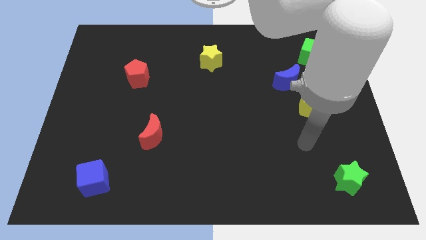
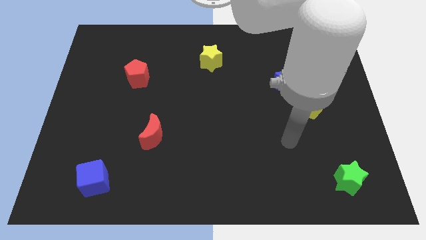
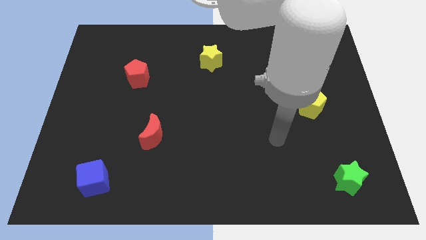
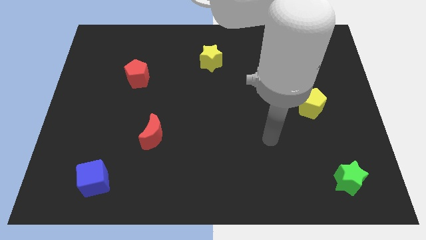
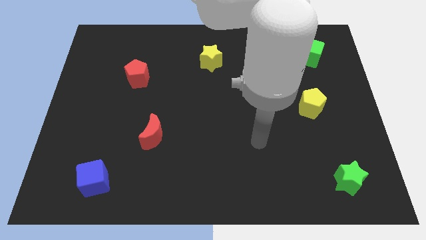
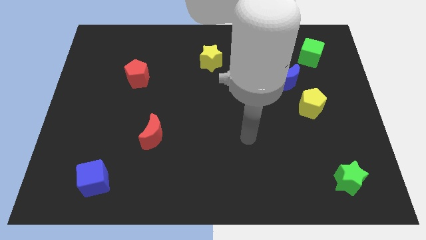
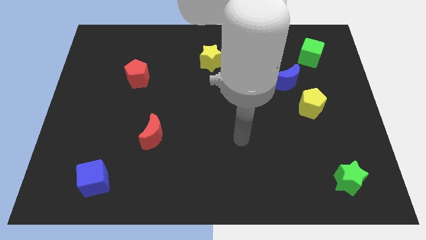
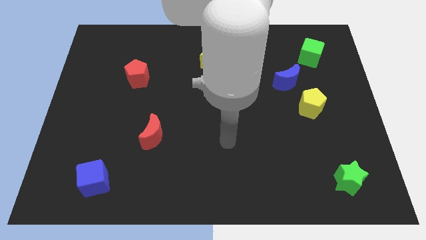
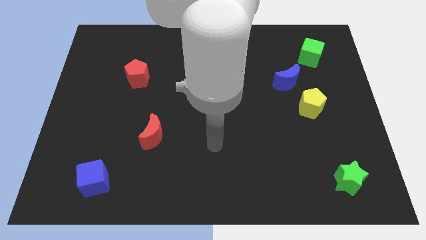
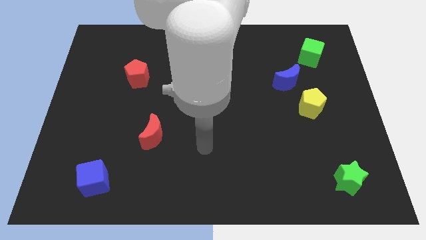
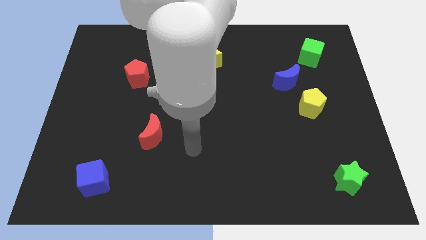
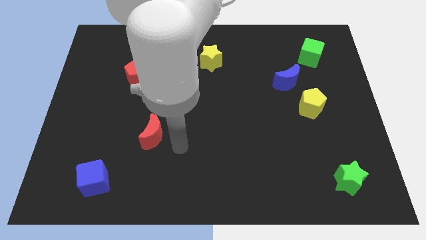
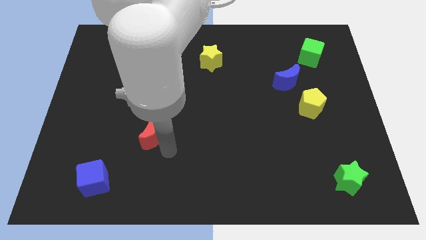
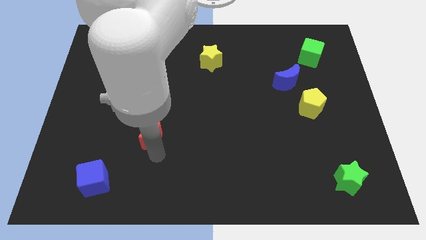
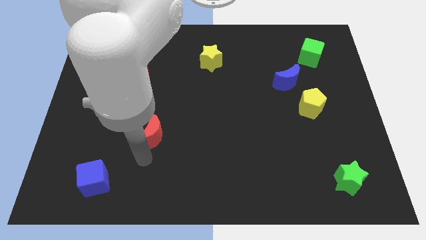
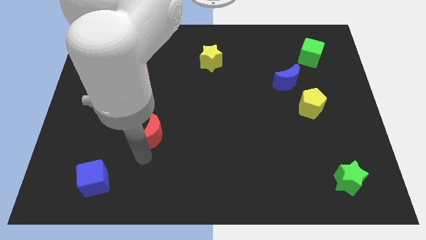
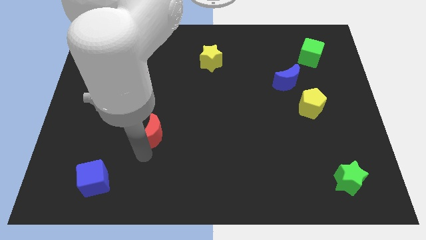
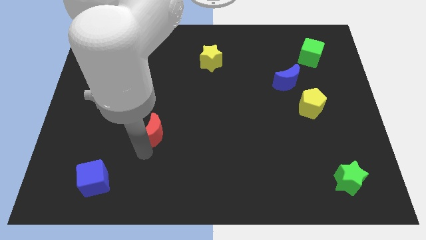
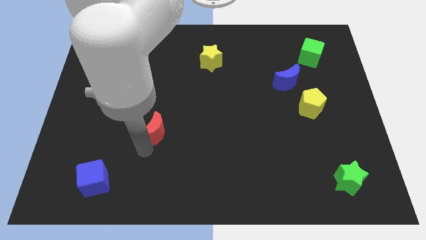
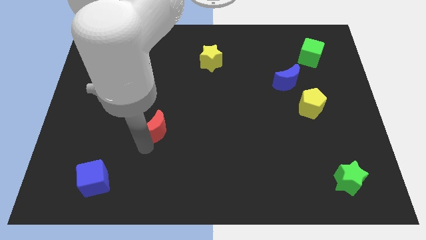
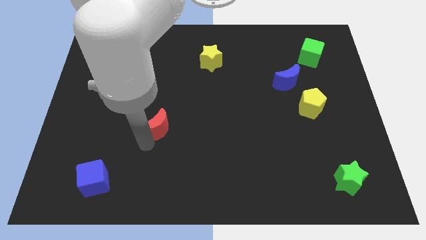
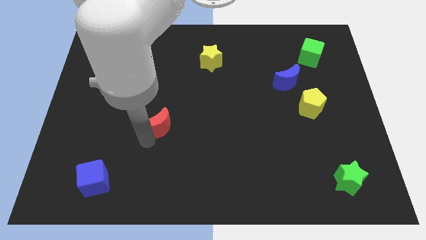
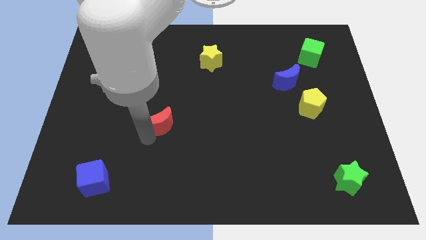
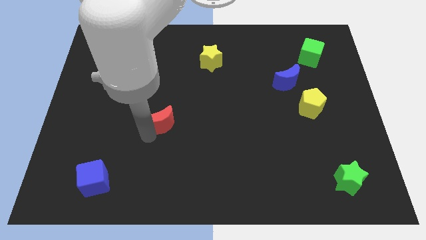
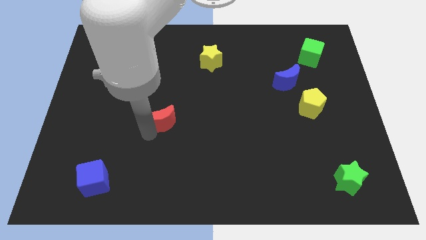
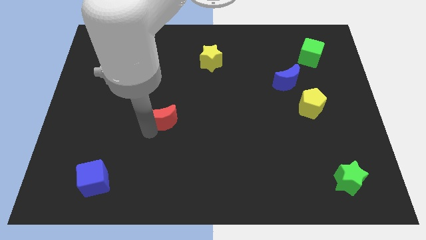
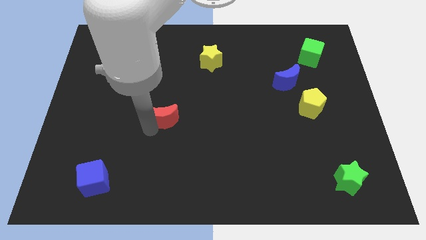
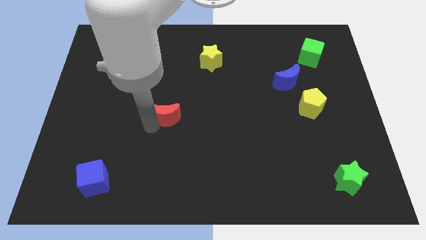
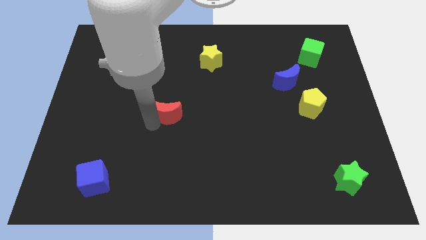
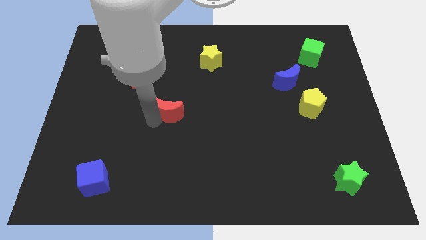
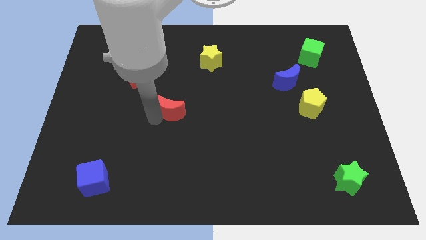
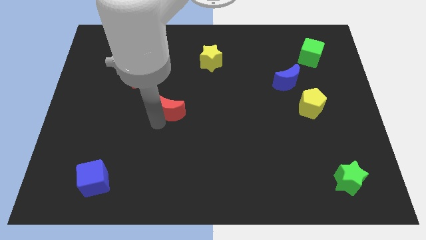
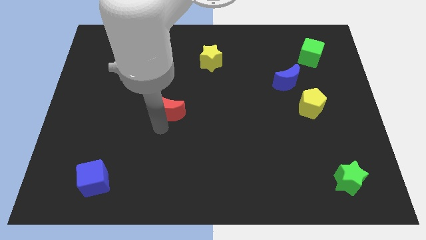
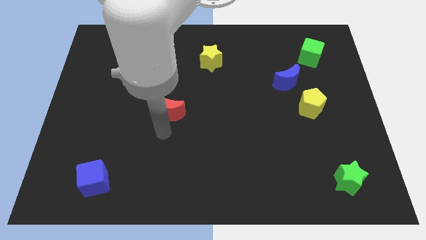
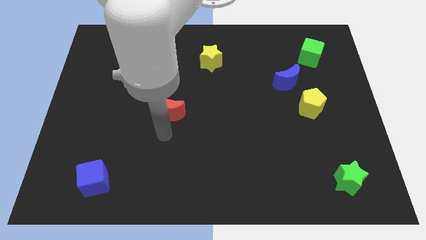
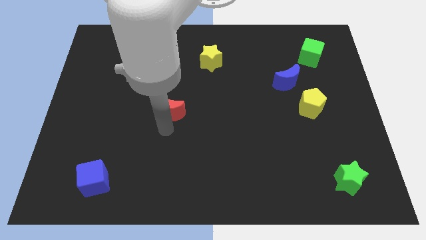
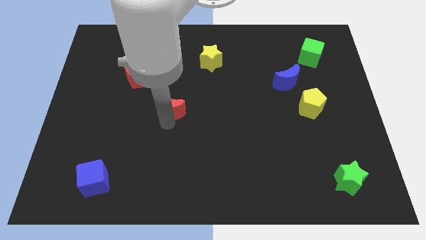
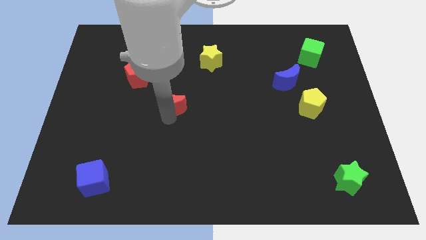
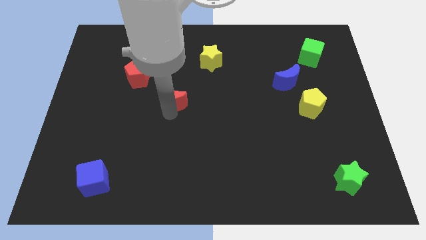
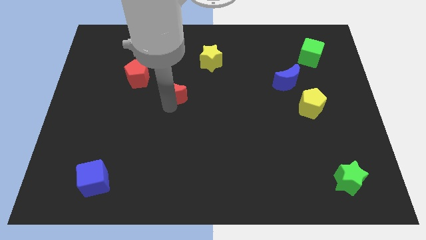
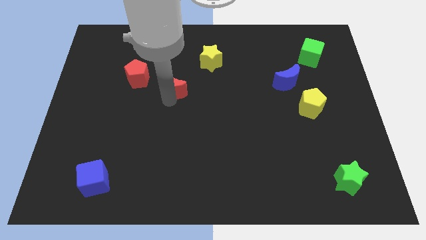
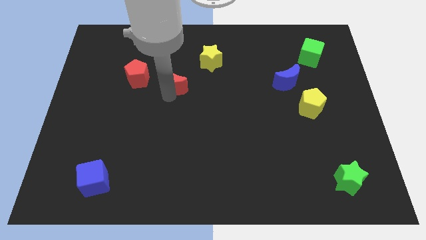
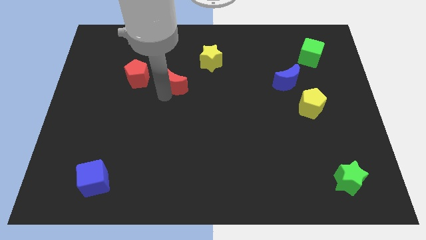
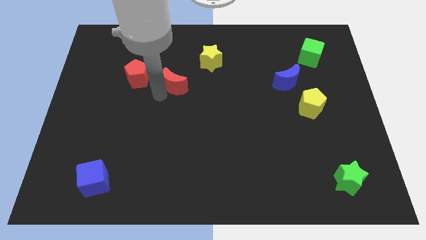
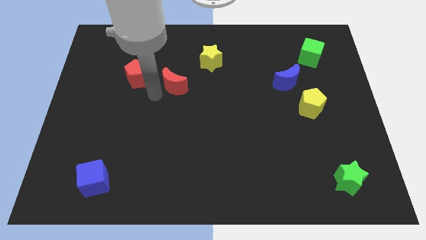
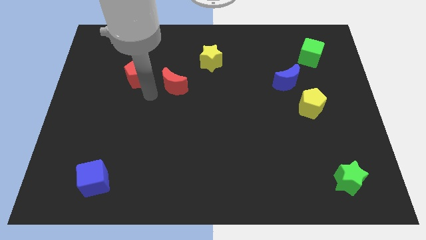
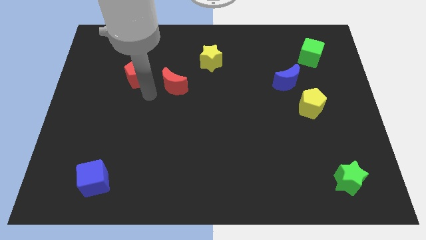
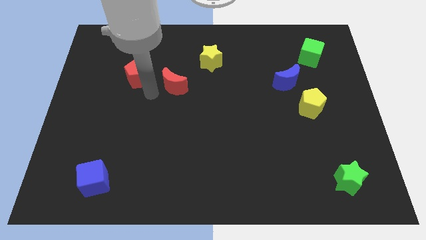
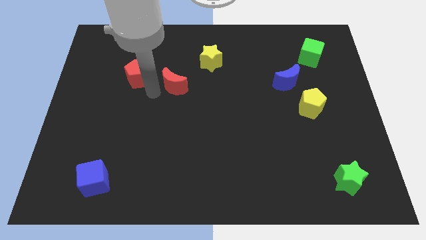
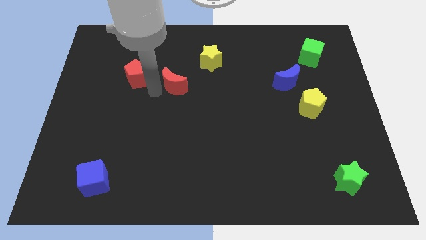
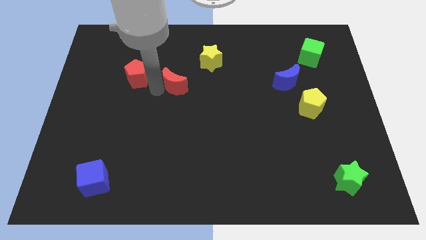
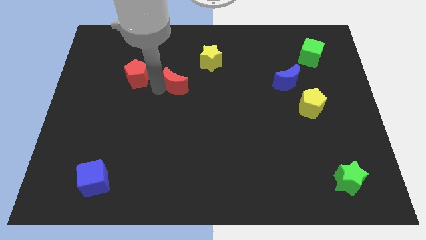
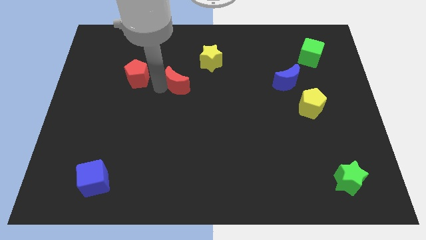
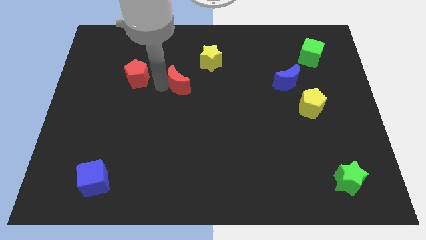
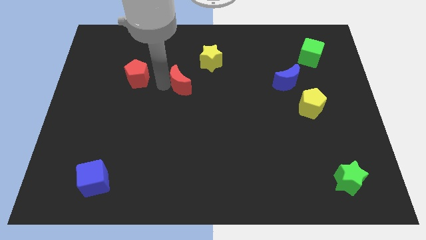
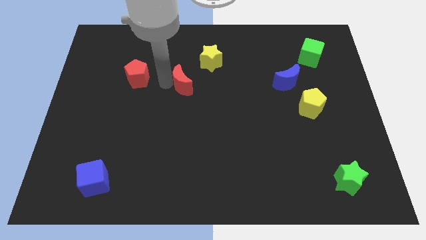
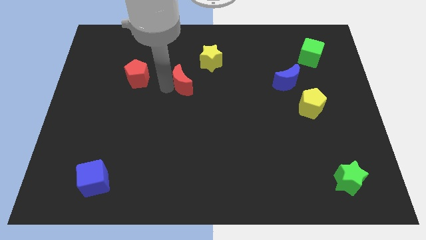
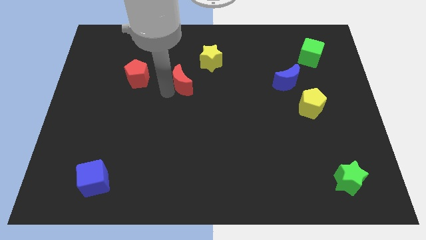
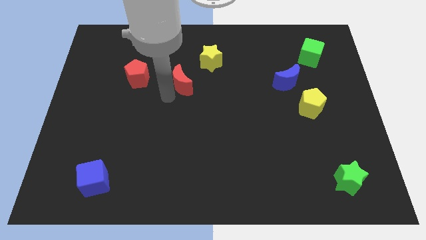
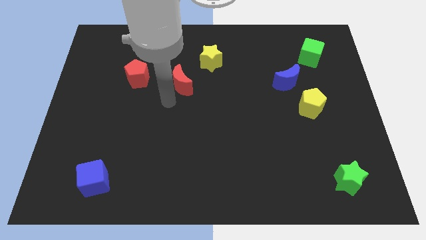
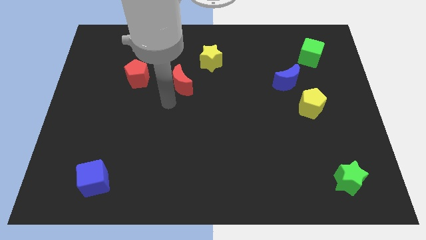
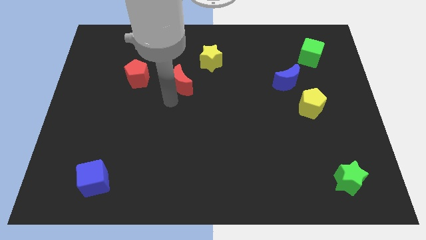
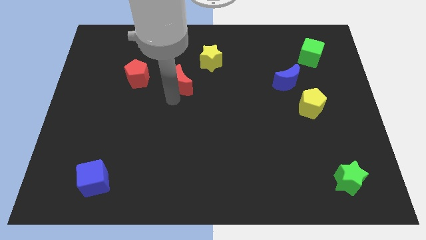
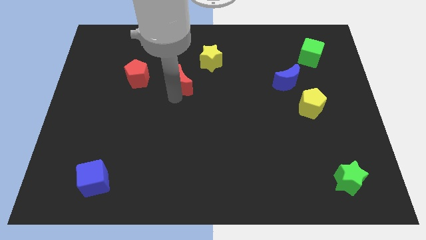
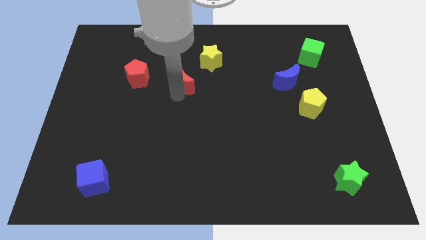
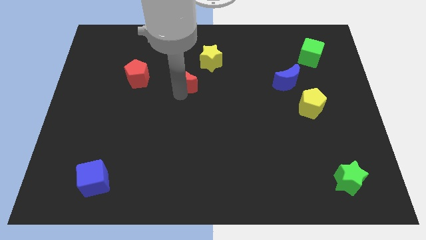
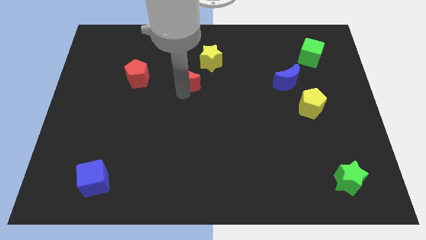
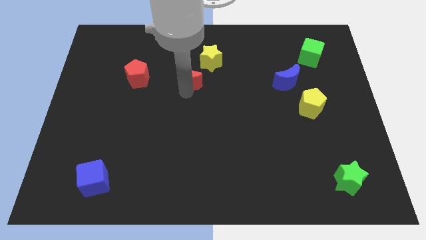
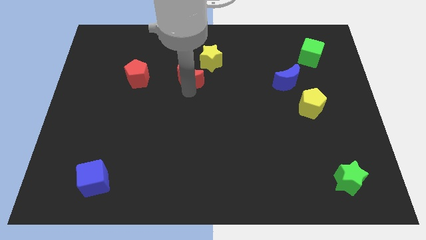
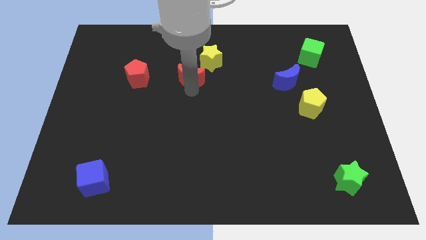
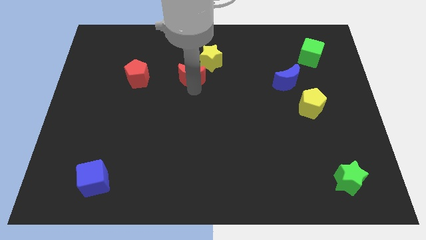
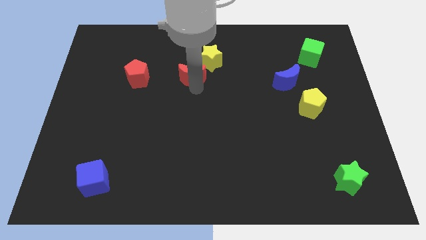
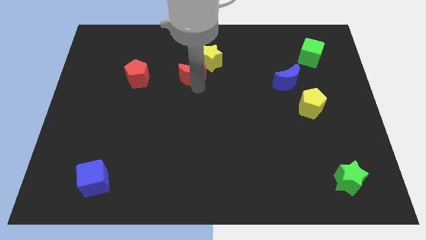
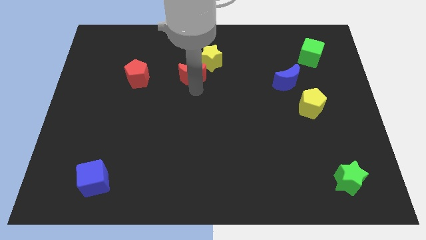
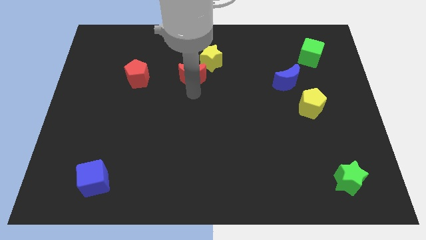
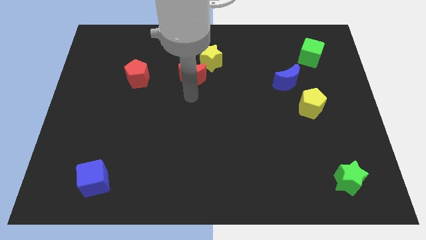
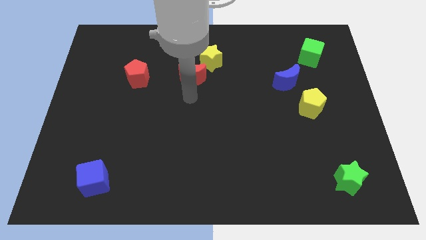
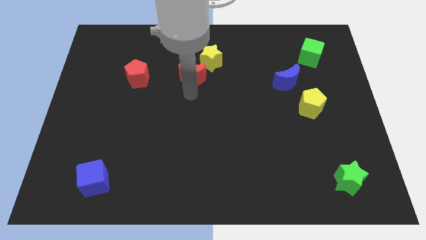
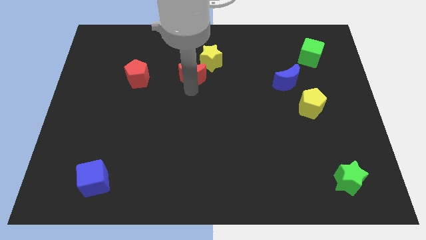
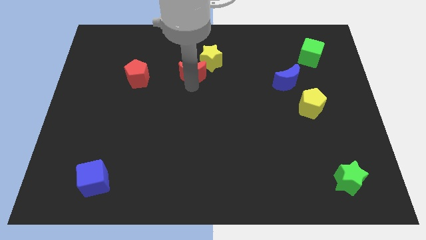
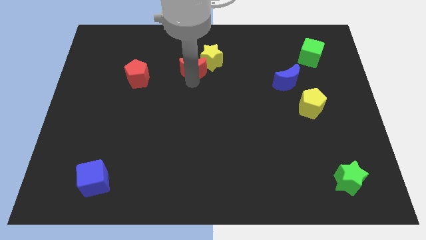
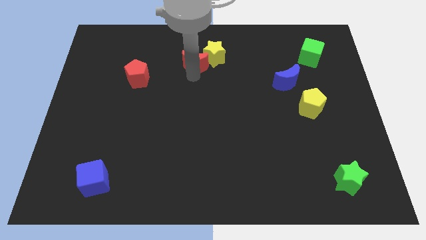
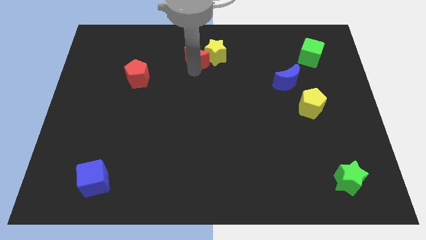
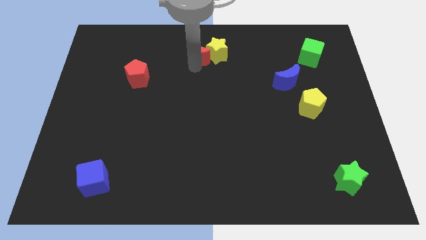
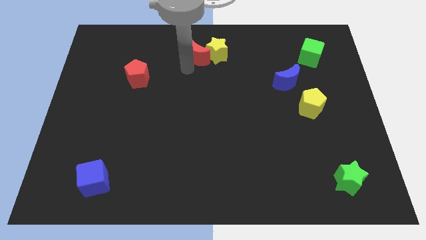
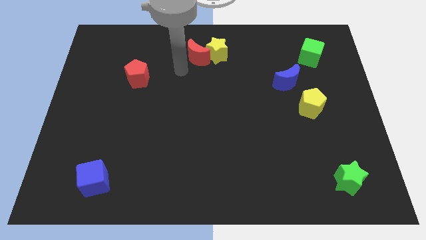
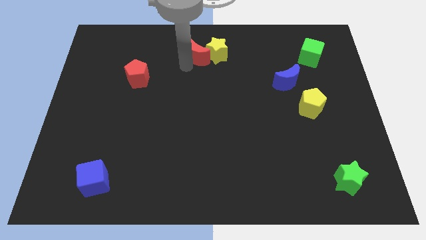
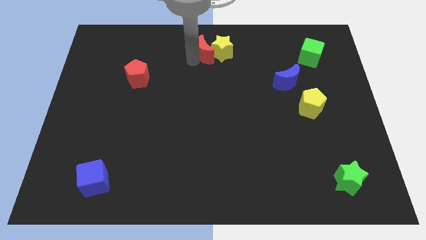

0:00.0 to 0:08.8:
slide the red moon to the top side
